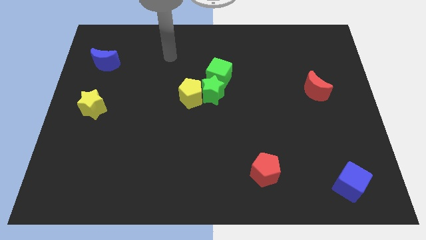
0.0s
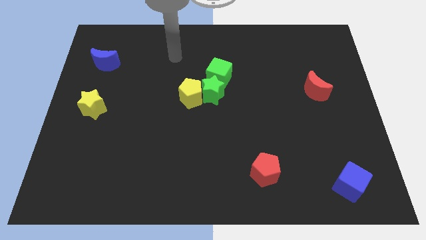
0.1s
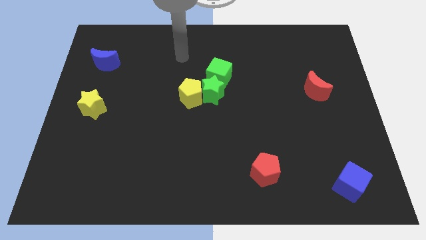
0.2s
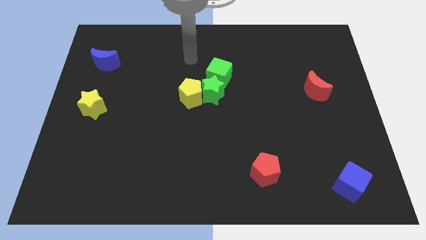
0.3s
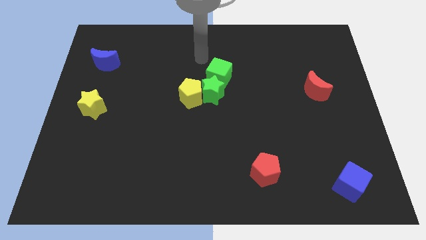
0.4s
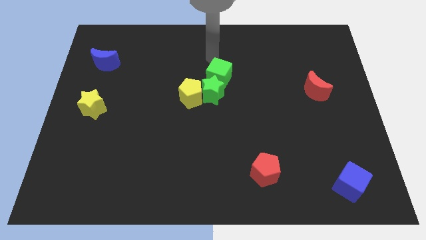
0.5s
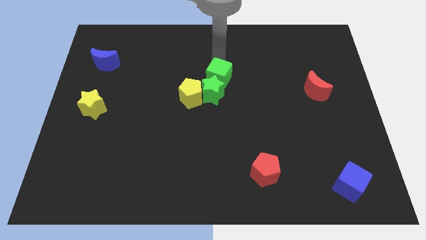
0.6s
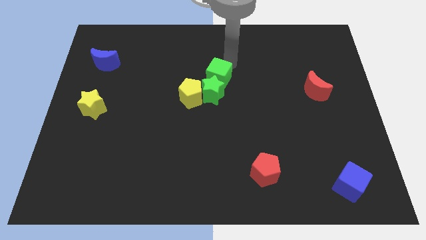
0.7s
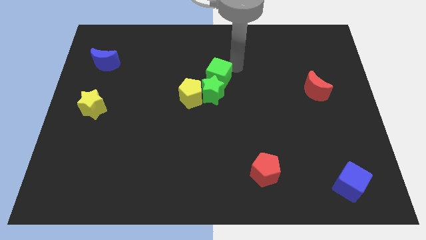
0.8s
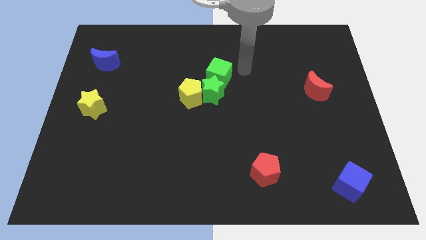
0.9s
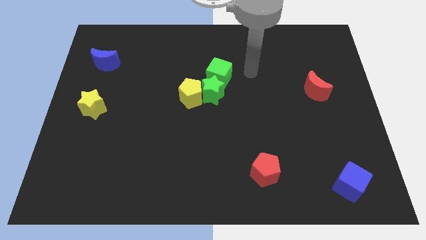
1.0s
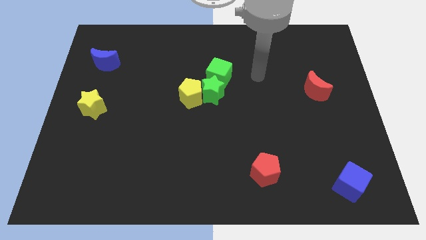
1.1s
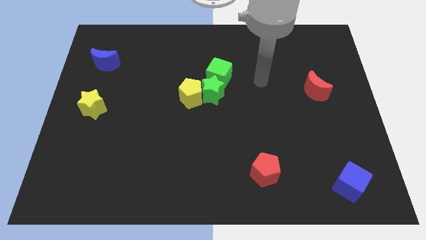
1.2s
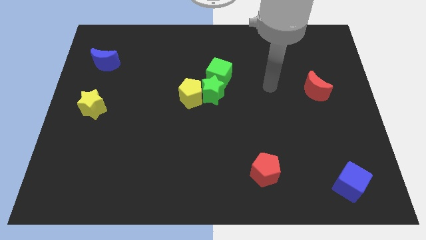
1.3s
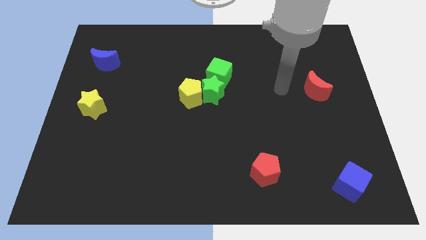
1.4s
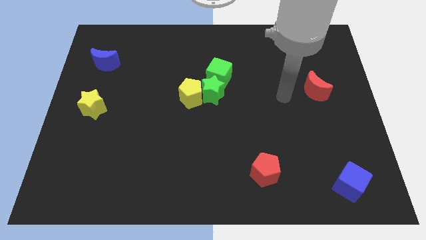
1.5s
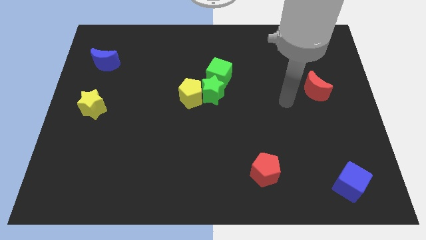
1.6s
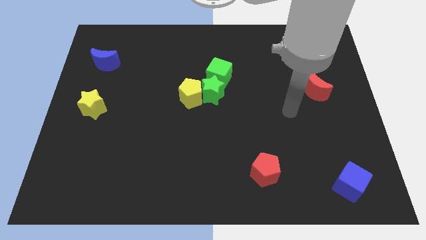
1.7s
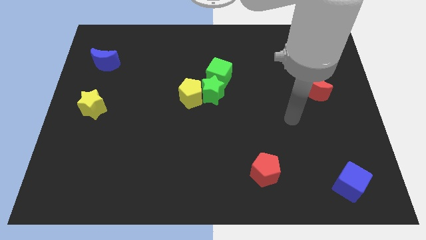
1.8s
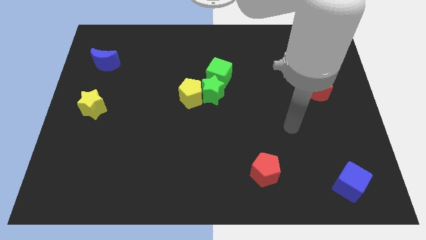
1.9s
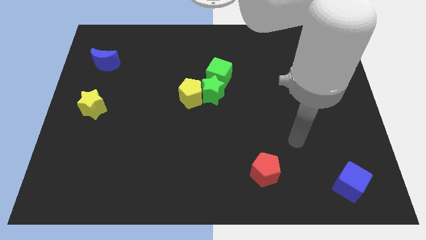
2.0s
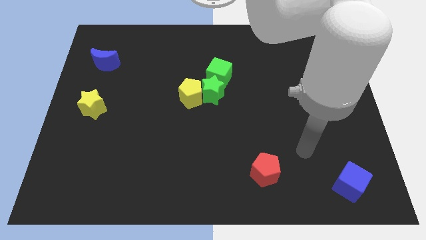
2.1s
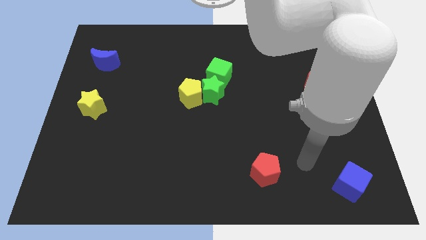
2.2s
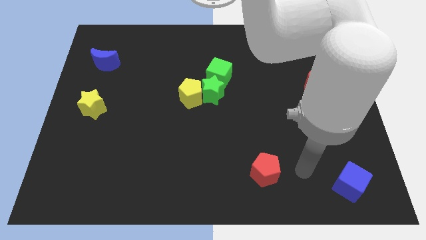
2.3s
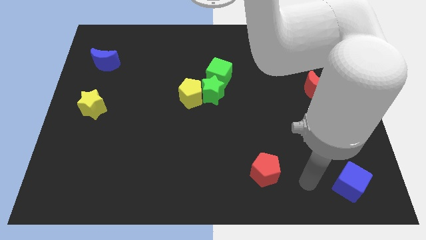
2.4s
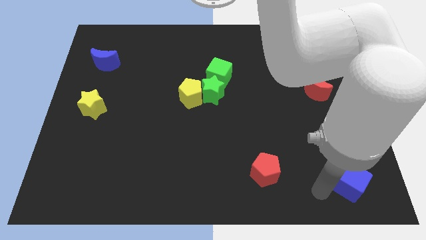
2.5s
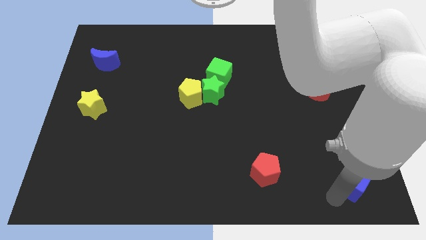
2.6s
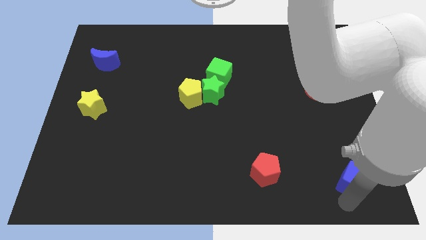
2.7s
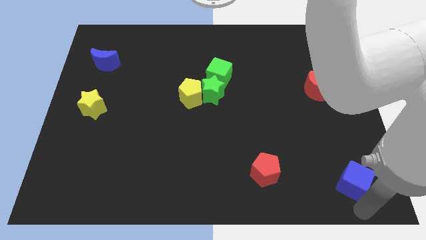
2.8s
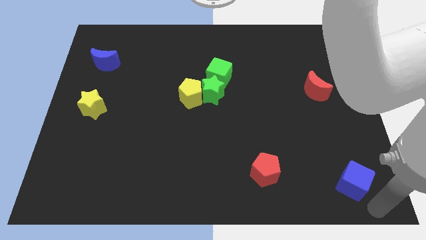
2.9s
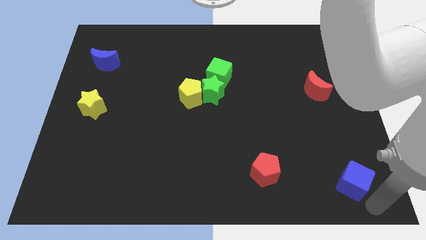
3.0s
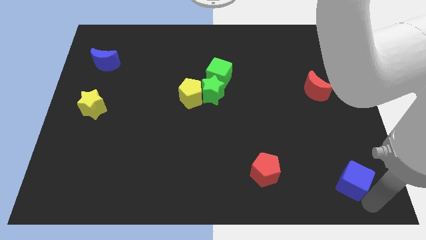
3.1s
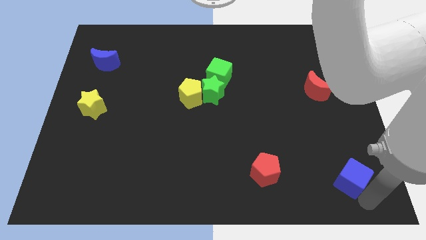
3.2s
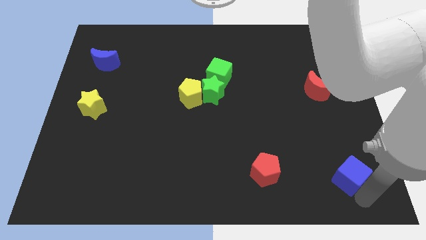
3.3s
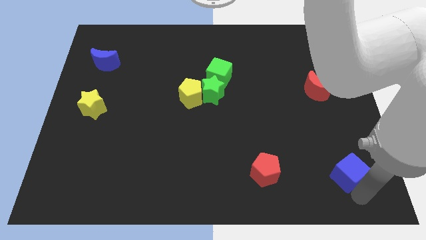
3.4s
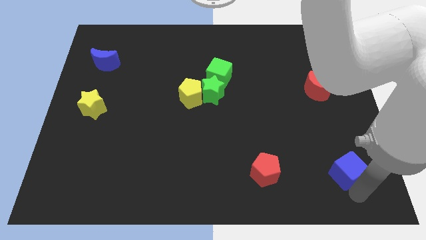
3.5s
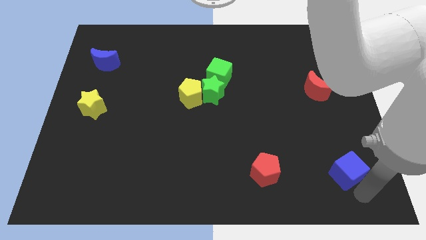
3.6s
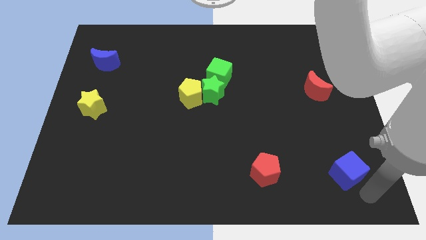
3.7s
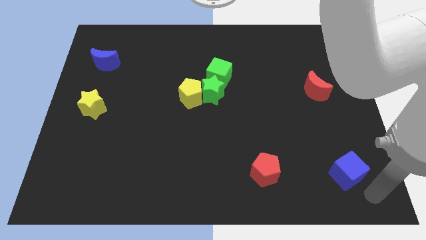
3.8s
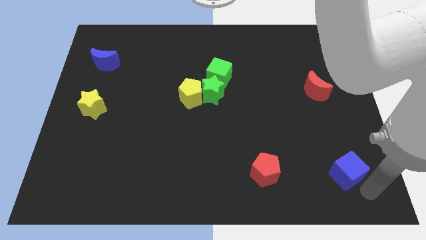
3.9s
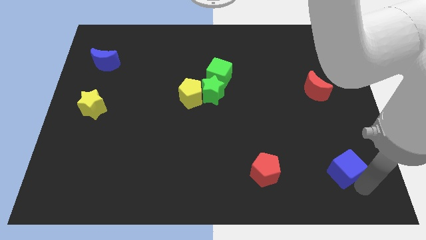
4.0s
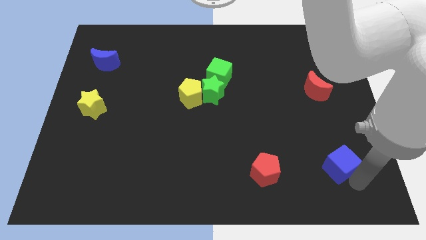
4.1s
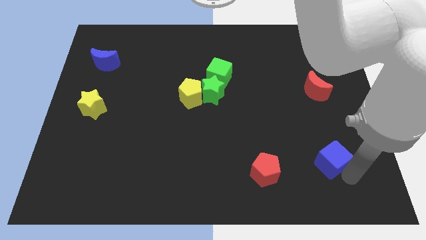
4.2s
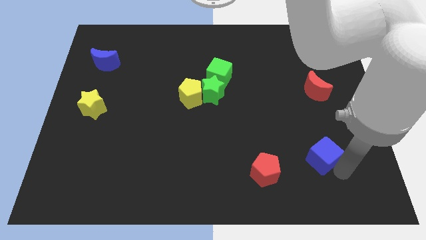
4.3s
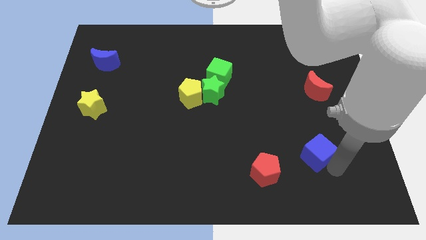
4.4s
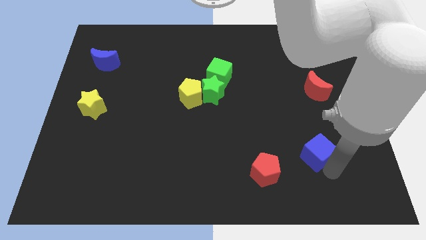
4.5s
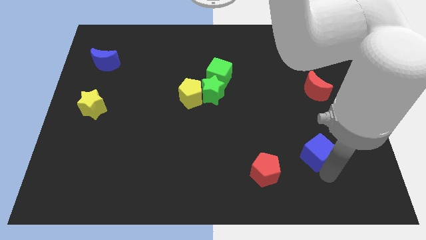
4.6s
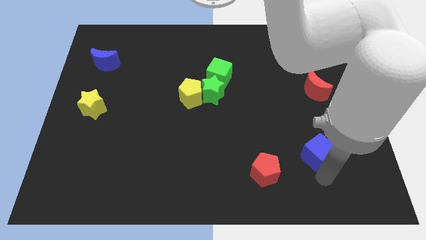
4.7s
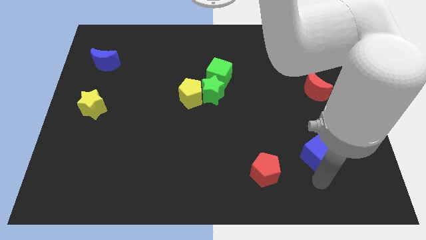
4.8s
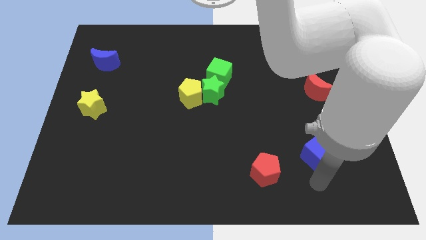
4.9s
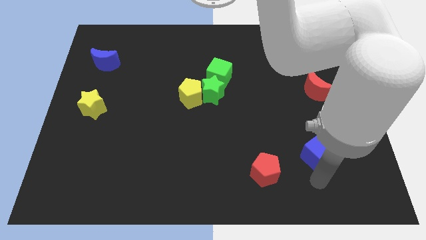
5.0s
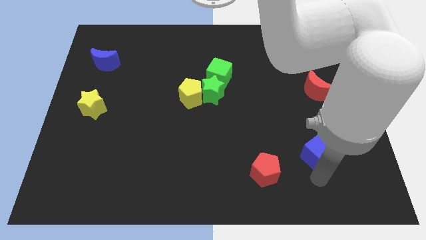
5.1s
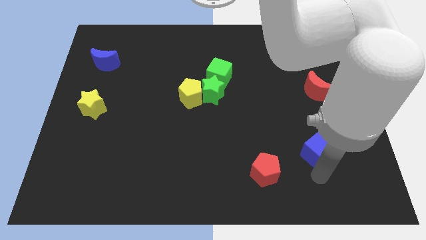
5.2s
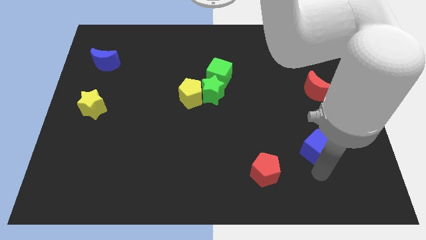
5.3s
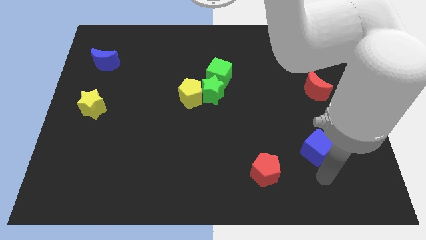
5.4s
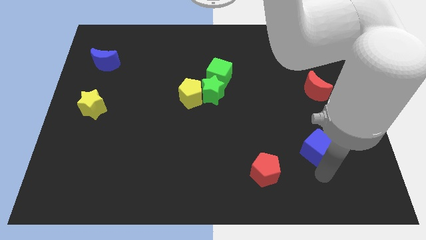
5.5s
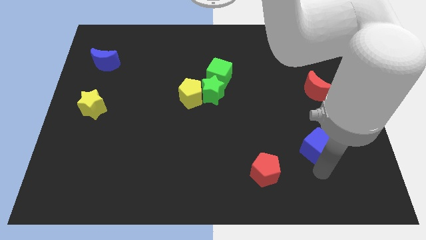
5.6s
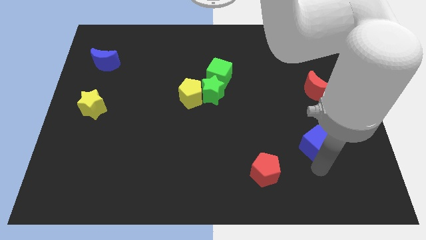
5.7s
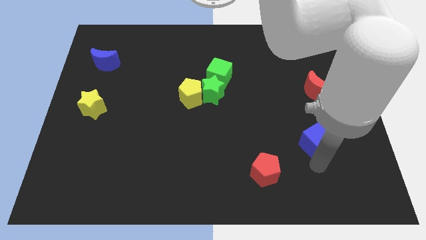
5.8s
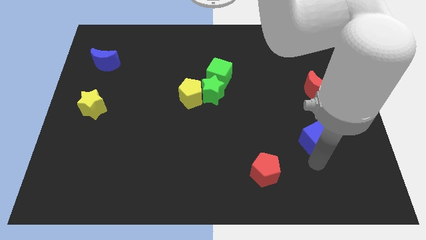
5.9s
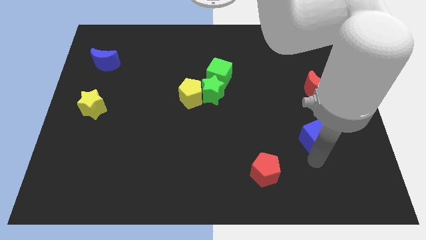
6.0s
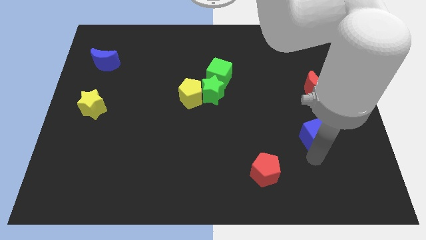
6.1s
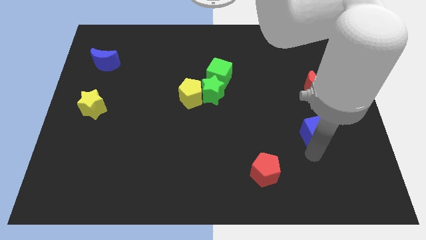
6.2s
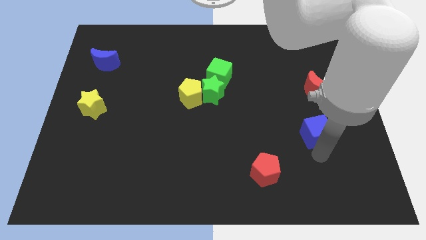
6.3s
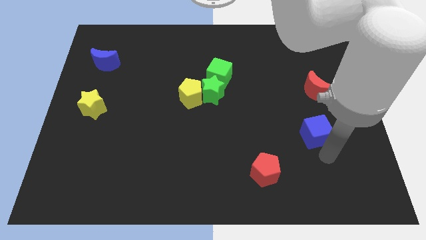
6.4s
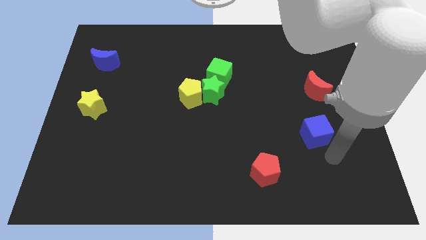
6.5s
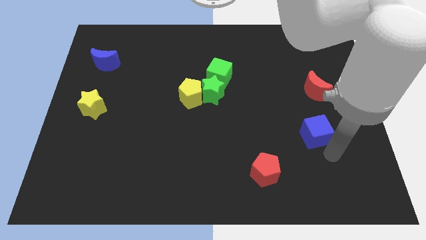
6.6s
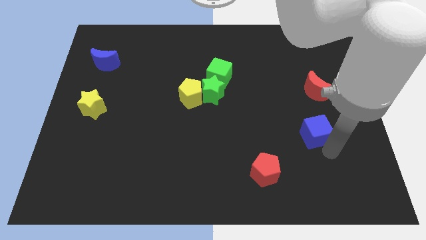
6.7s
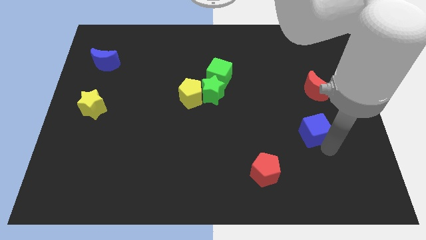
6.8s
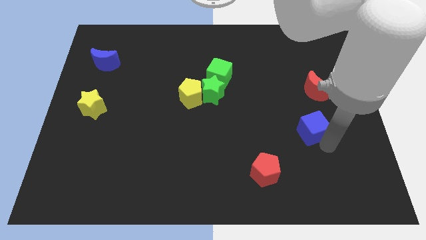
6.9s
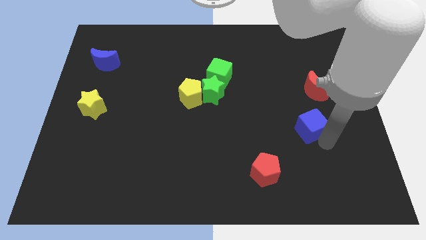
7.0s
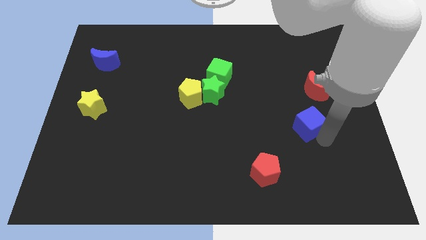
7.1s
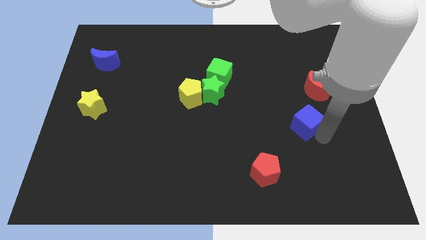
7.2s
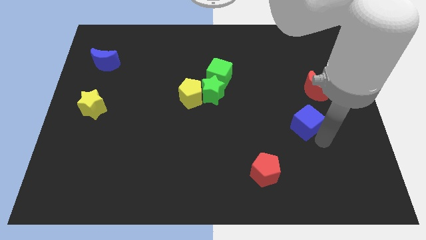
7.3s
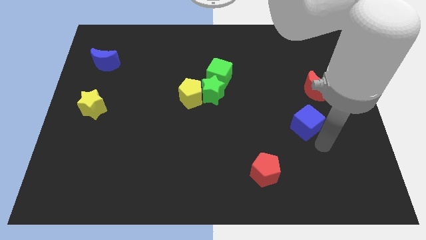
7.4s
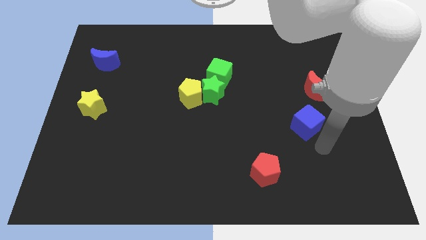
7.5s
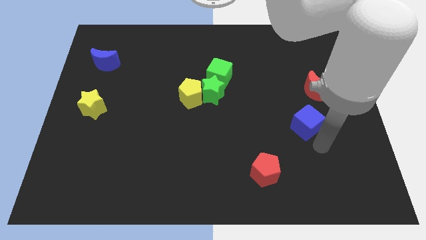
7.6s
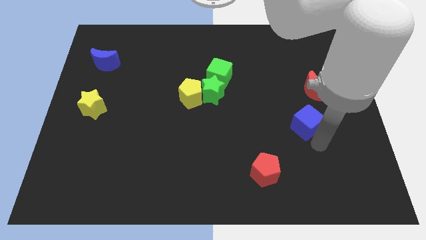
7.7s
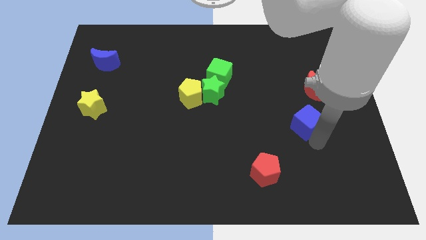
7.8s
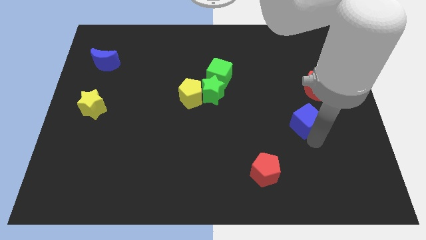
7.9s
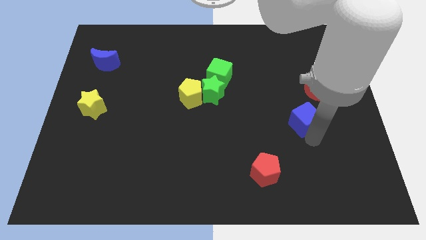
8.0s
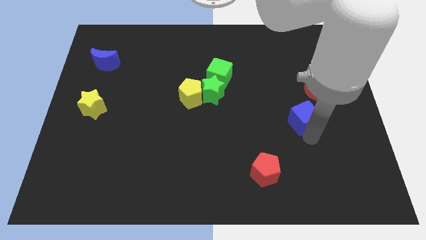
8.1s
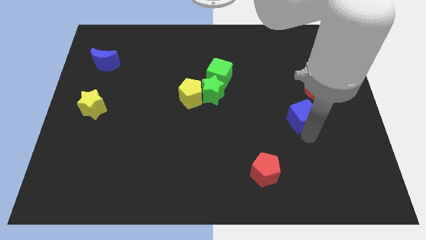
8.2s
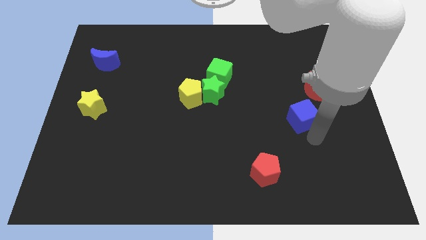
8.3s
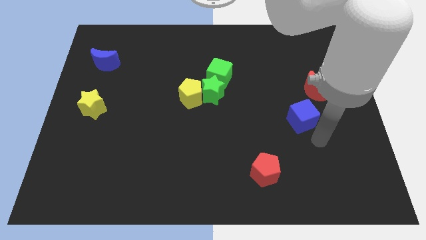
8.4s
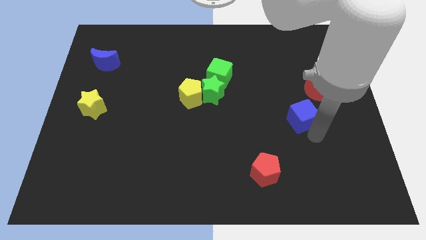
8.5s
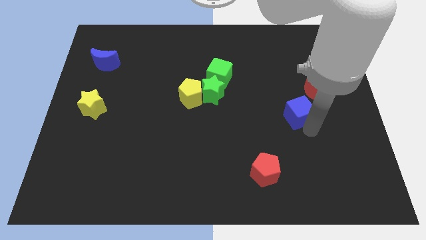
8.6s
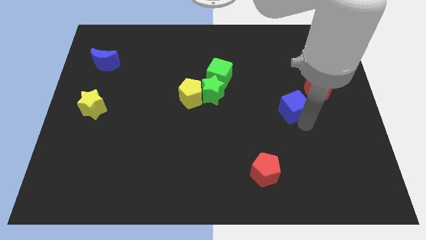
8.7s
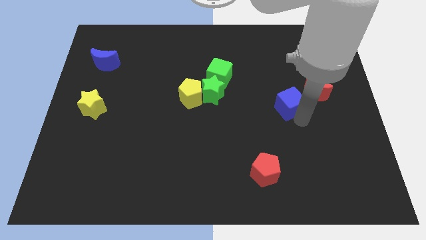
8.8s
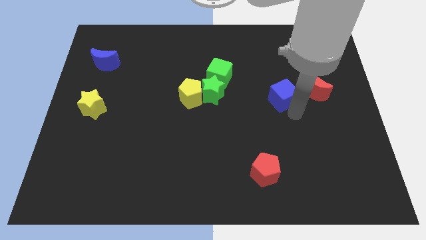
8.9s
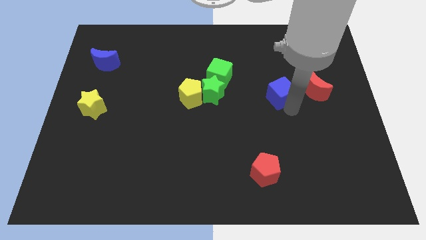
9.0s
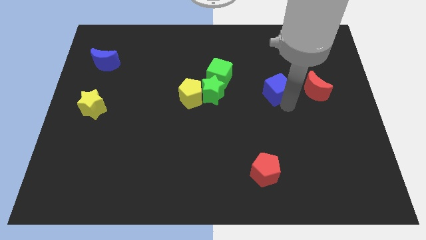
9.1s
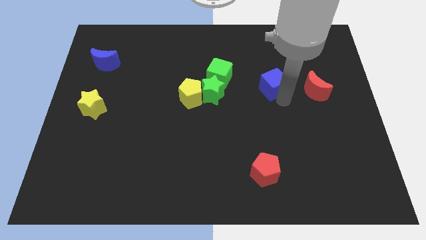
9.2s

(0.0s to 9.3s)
put the blue cube just right of the green cube
